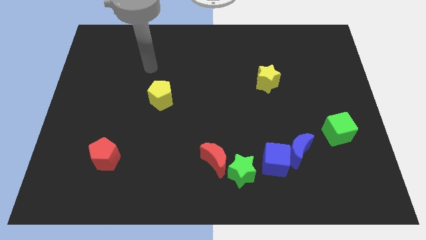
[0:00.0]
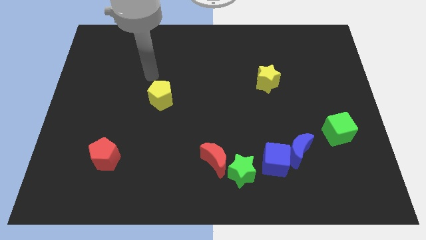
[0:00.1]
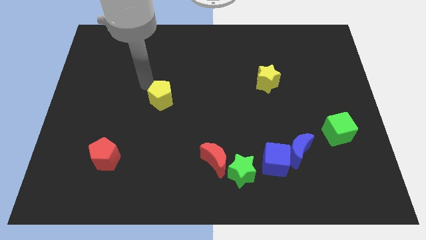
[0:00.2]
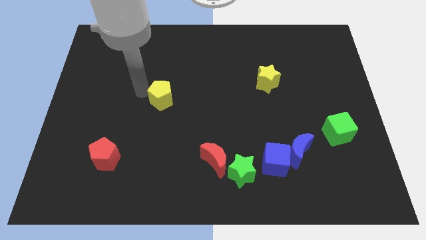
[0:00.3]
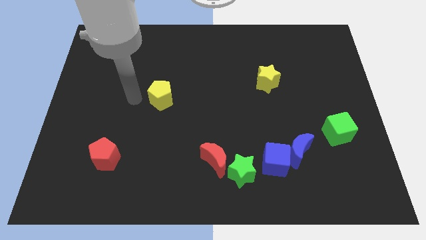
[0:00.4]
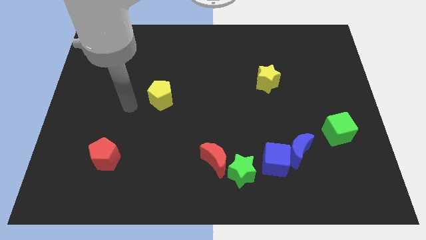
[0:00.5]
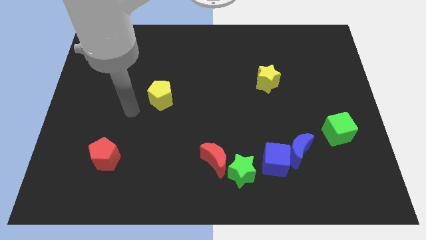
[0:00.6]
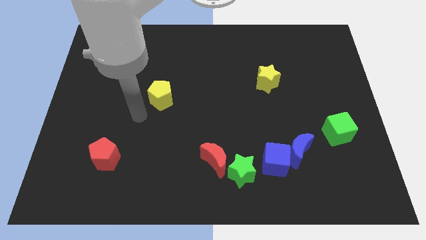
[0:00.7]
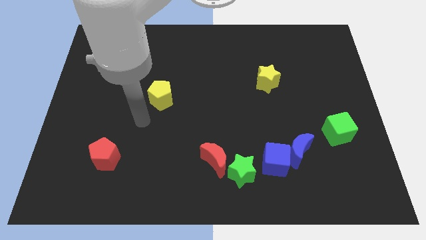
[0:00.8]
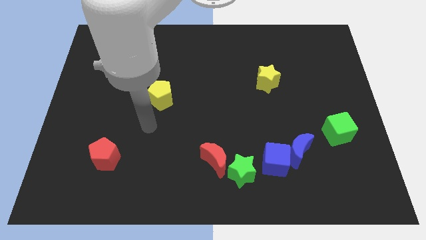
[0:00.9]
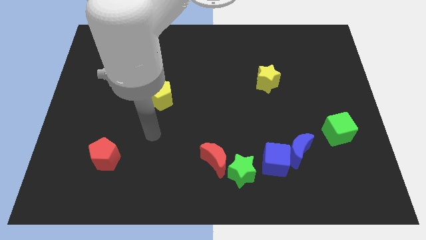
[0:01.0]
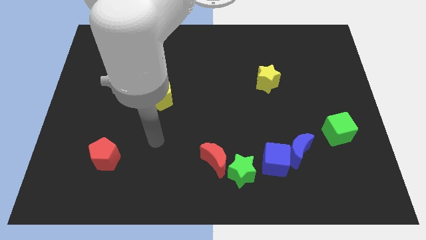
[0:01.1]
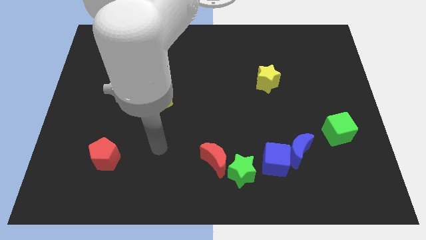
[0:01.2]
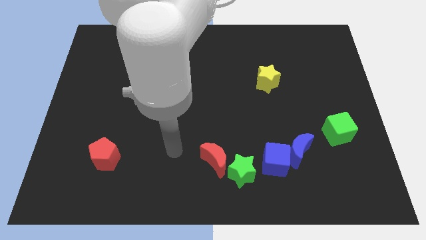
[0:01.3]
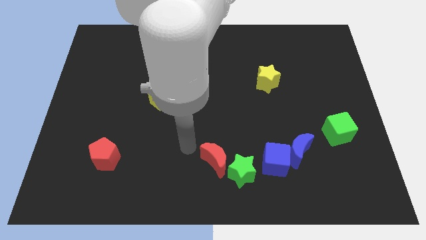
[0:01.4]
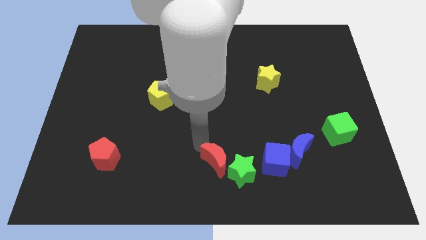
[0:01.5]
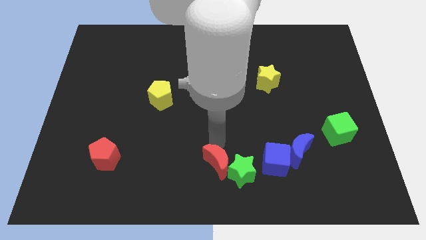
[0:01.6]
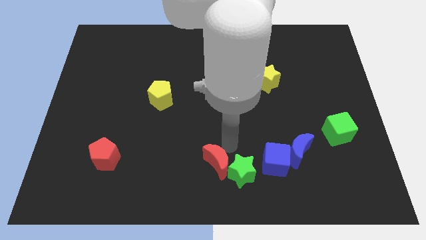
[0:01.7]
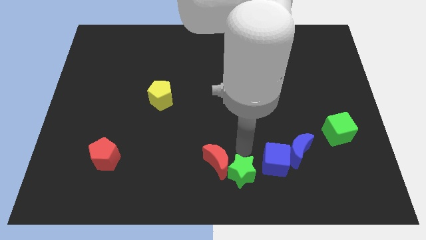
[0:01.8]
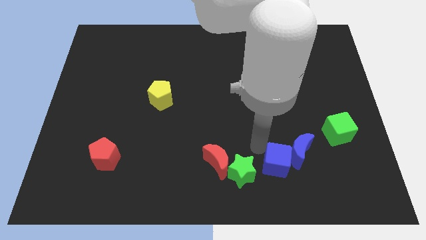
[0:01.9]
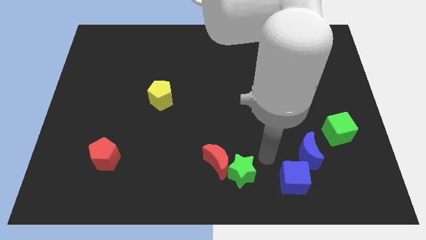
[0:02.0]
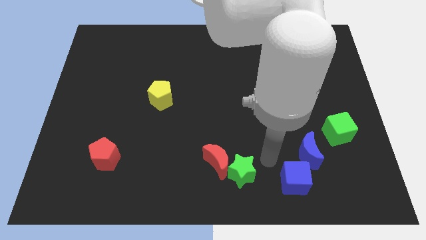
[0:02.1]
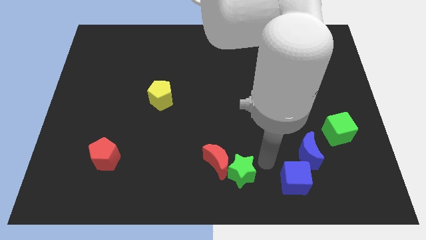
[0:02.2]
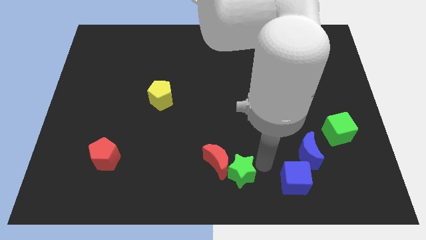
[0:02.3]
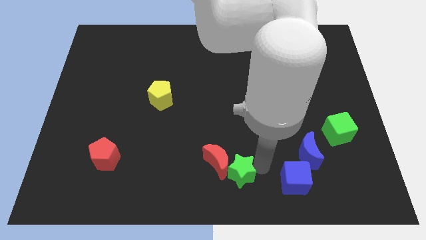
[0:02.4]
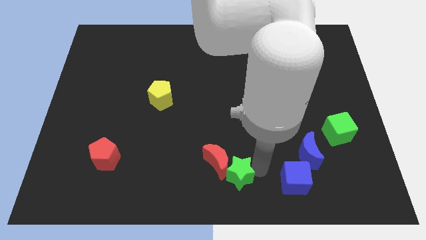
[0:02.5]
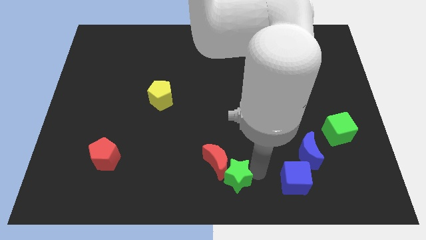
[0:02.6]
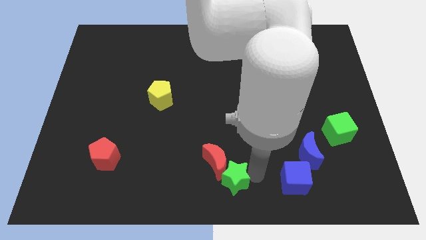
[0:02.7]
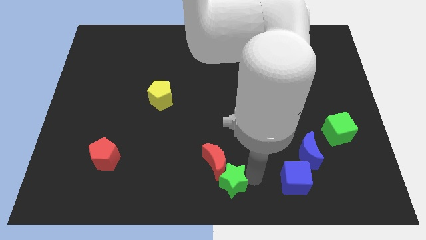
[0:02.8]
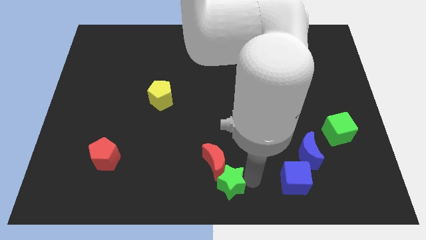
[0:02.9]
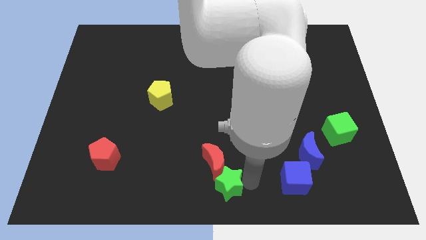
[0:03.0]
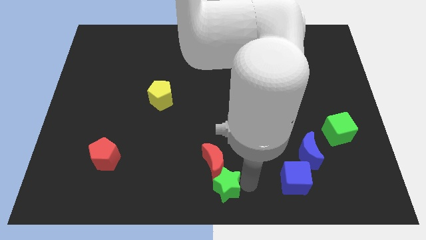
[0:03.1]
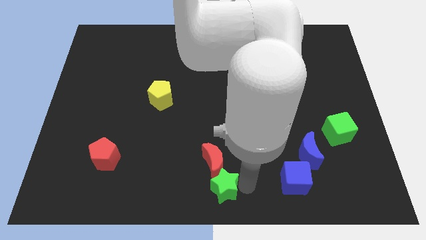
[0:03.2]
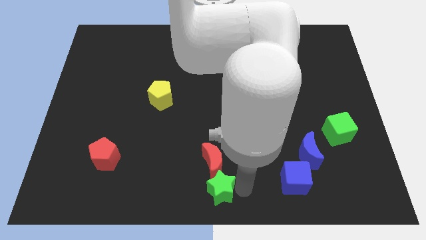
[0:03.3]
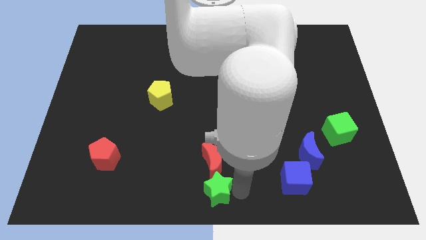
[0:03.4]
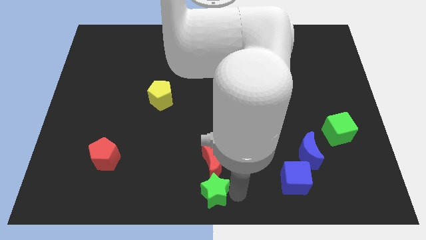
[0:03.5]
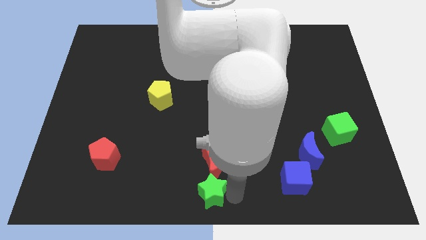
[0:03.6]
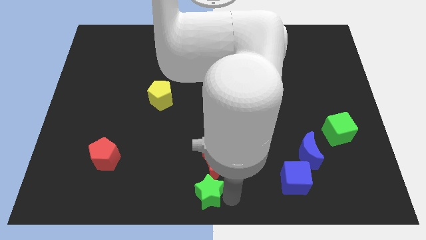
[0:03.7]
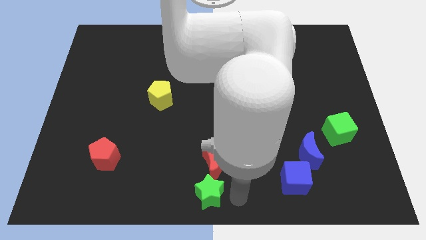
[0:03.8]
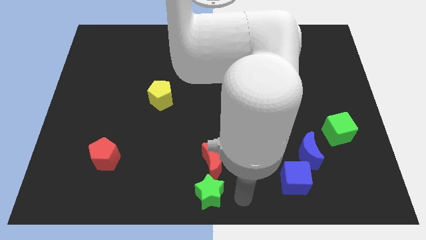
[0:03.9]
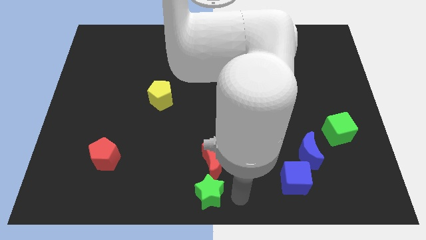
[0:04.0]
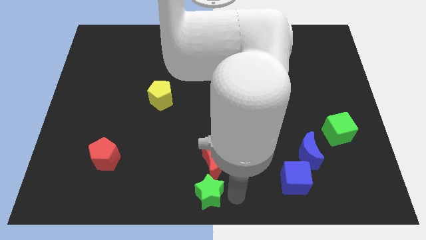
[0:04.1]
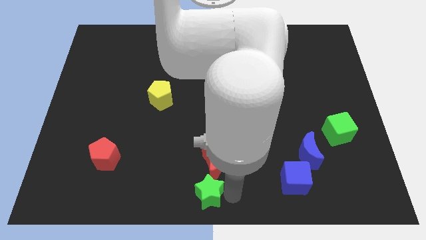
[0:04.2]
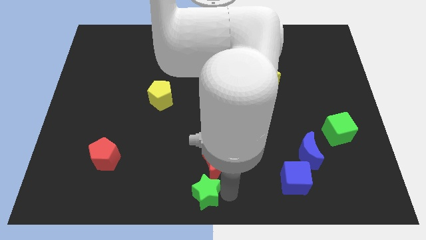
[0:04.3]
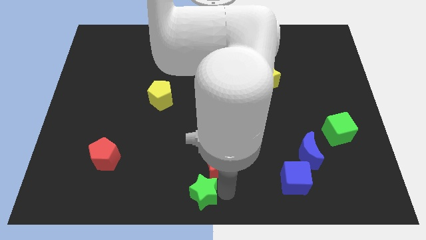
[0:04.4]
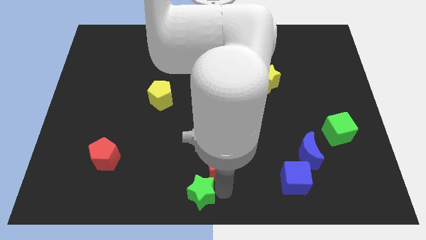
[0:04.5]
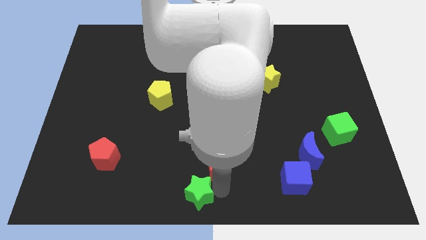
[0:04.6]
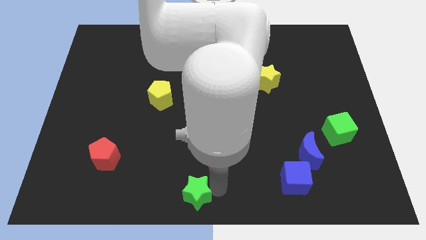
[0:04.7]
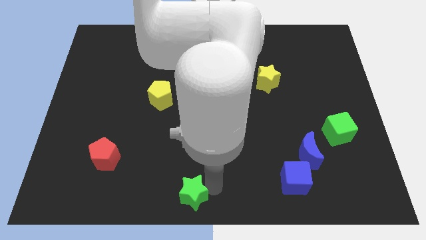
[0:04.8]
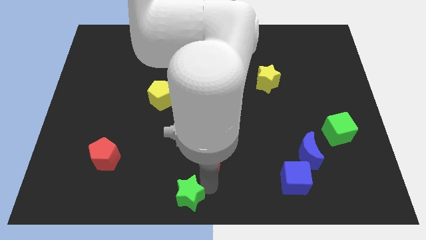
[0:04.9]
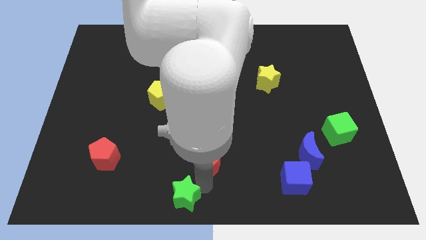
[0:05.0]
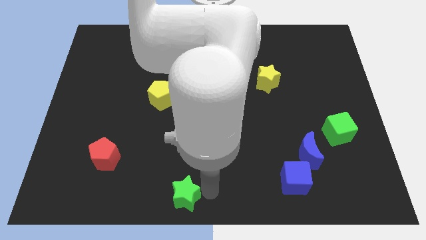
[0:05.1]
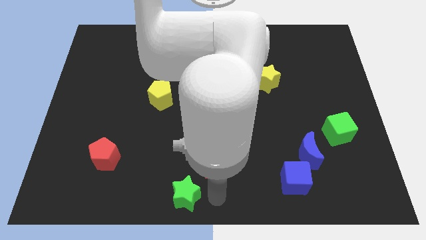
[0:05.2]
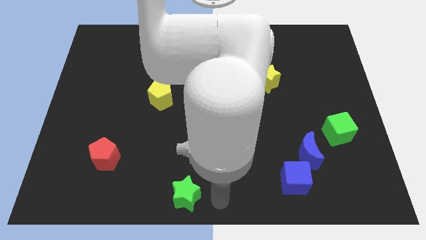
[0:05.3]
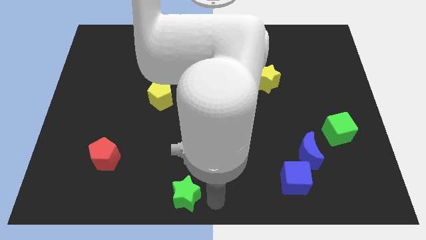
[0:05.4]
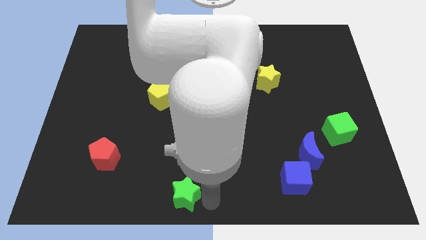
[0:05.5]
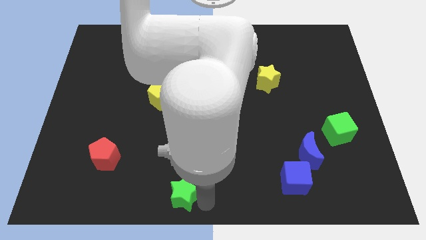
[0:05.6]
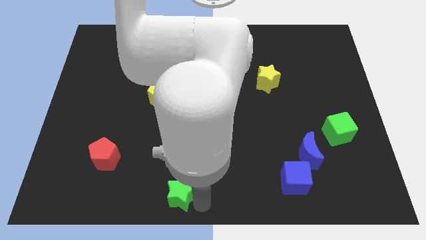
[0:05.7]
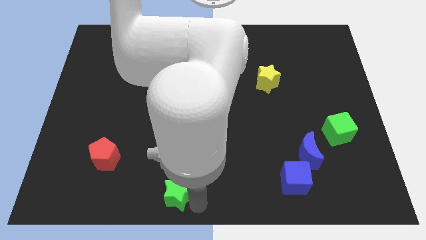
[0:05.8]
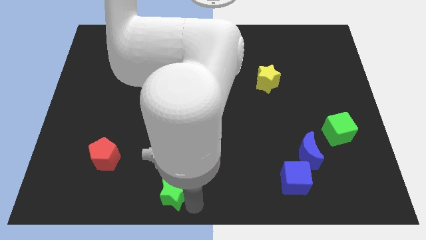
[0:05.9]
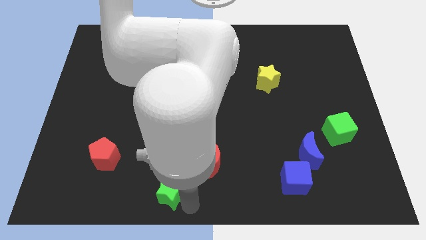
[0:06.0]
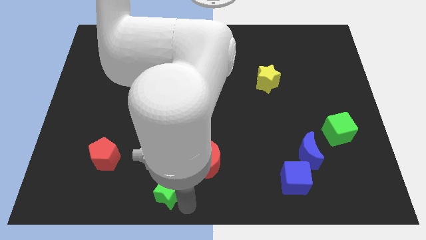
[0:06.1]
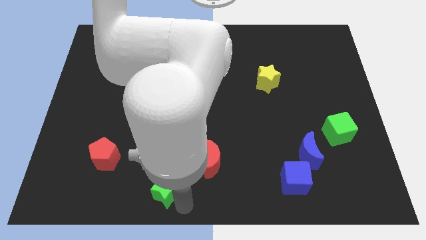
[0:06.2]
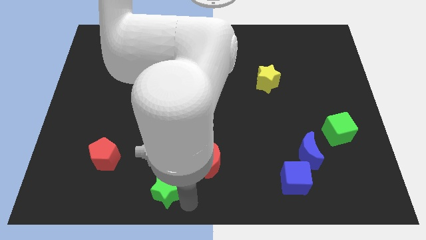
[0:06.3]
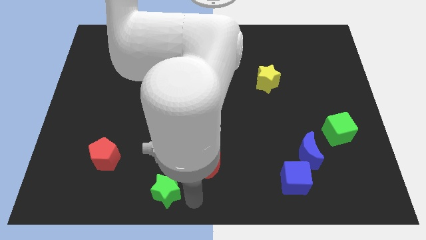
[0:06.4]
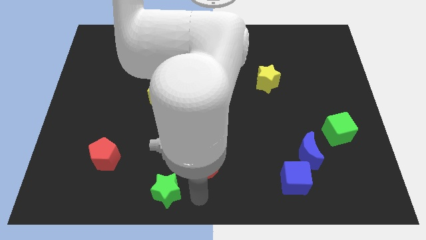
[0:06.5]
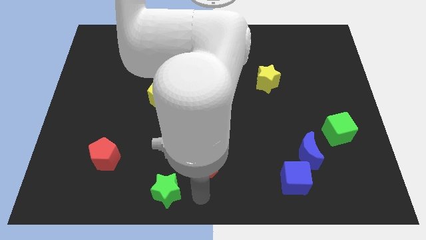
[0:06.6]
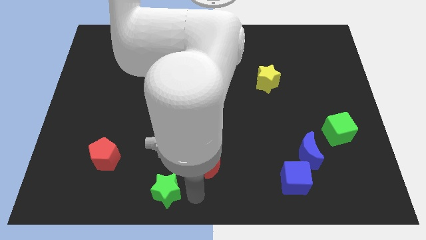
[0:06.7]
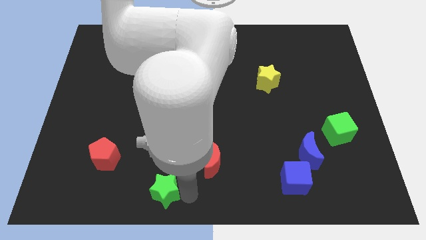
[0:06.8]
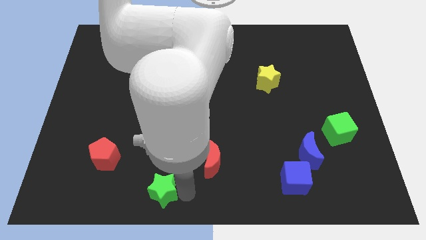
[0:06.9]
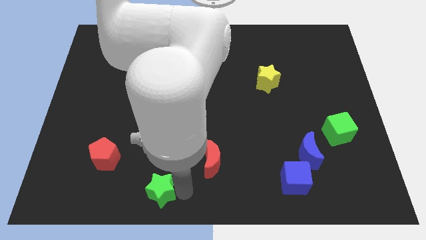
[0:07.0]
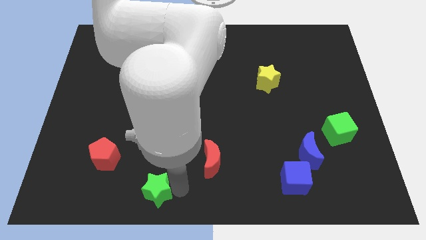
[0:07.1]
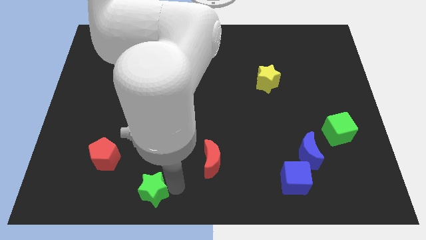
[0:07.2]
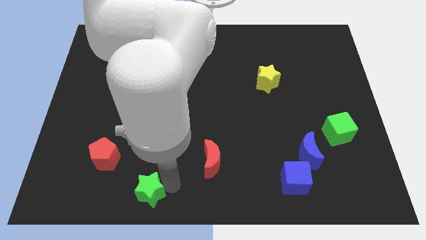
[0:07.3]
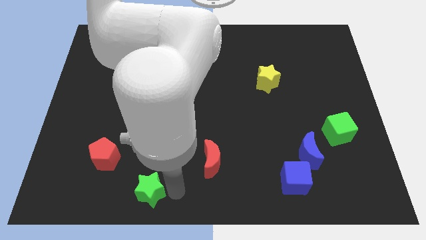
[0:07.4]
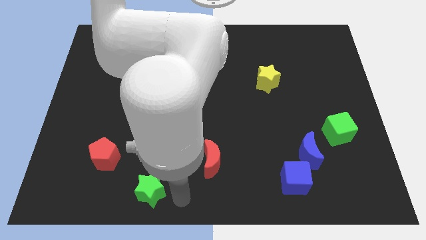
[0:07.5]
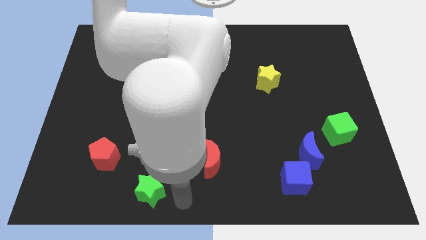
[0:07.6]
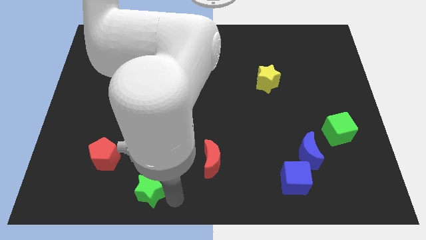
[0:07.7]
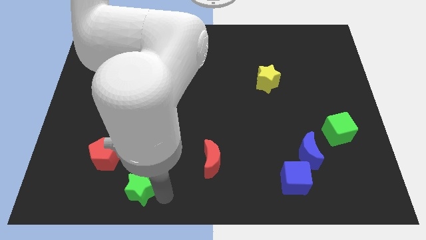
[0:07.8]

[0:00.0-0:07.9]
move the green star to the left

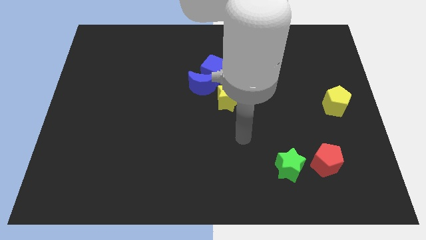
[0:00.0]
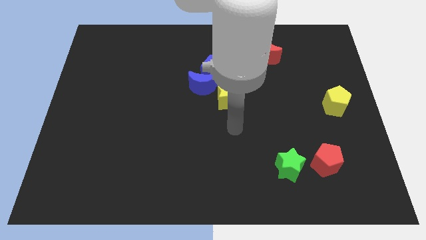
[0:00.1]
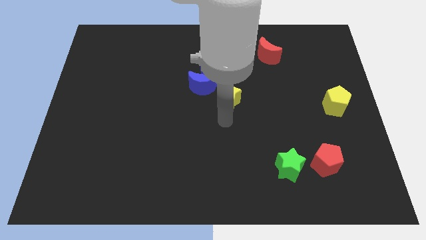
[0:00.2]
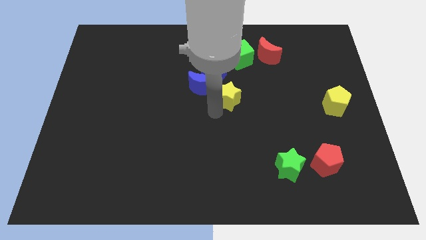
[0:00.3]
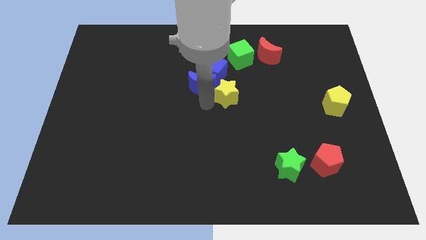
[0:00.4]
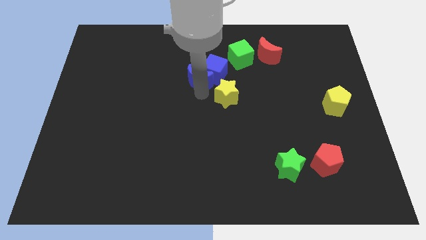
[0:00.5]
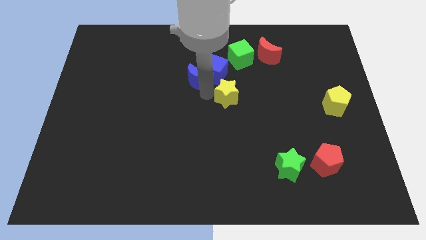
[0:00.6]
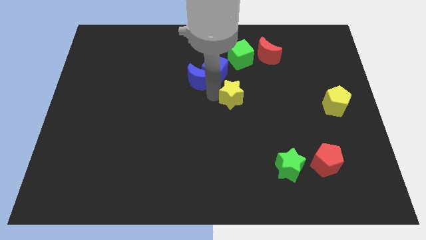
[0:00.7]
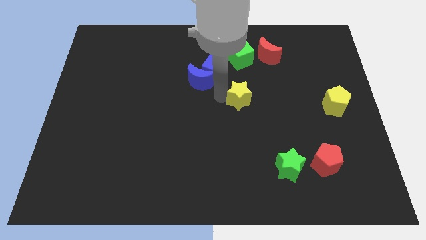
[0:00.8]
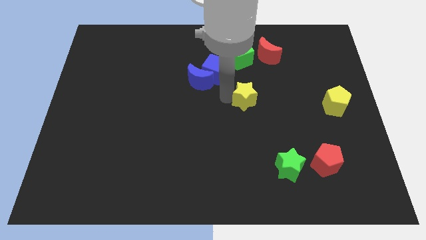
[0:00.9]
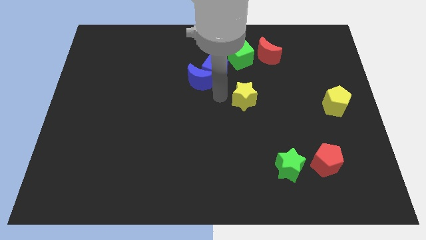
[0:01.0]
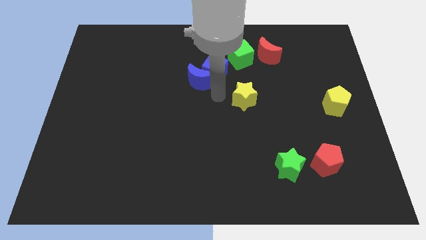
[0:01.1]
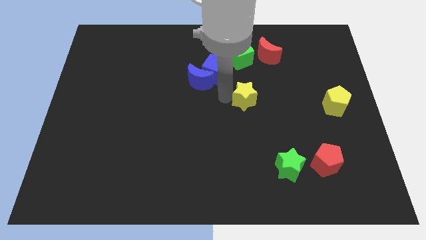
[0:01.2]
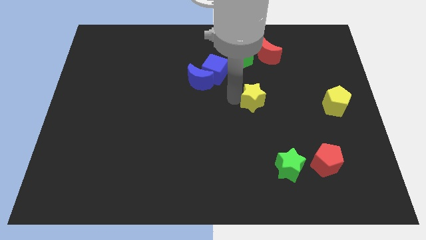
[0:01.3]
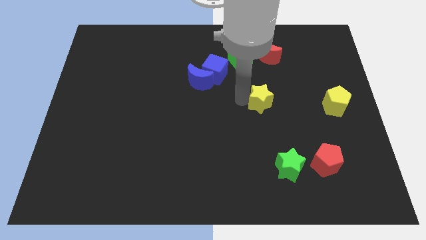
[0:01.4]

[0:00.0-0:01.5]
move the yellow star a little to the right
